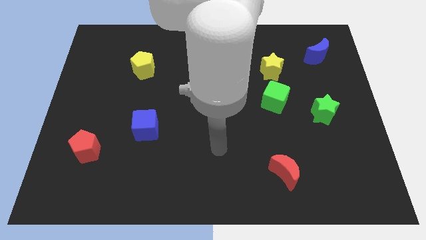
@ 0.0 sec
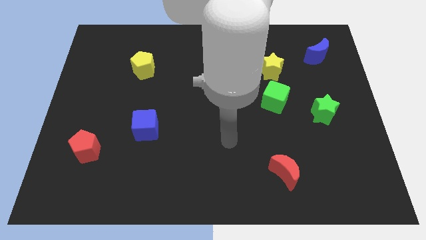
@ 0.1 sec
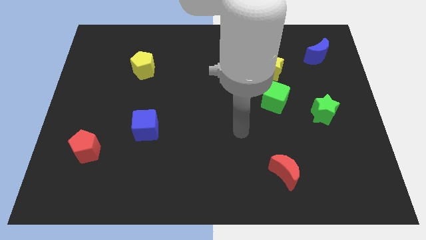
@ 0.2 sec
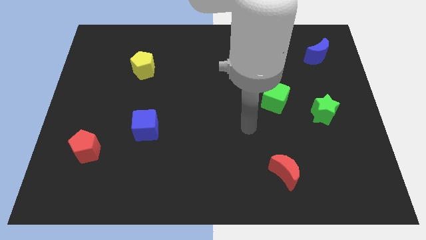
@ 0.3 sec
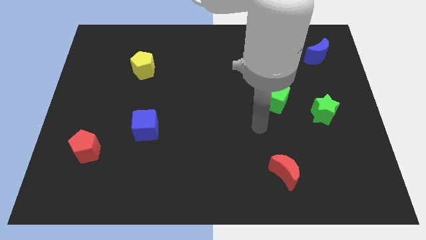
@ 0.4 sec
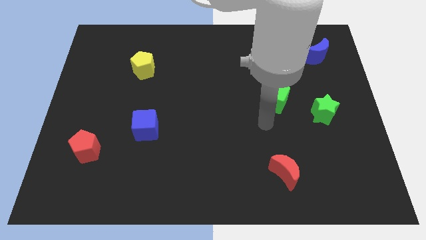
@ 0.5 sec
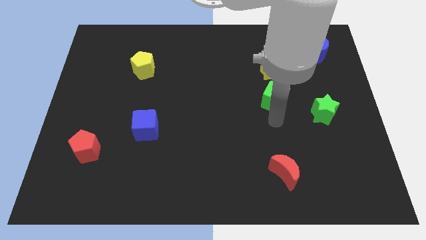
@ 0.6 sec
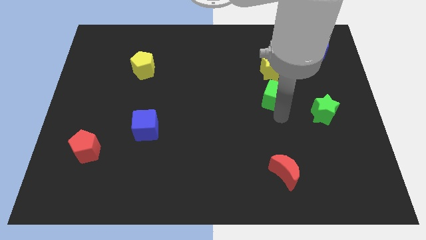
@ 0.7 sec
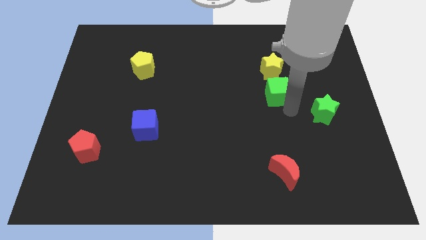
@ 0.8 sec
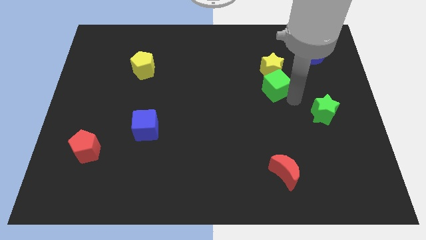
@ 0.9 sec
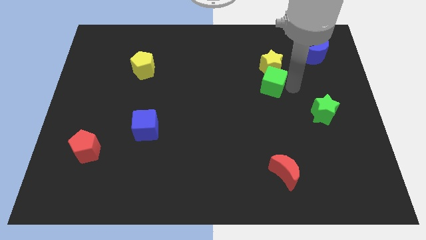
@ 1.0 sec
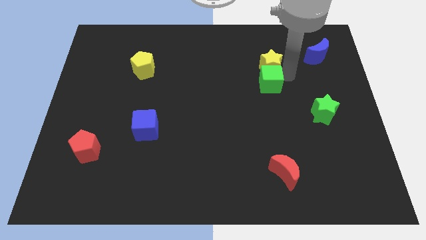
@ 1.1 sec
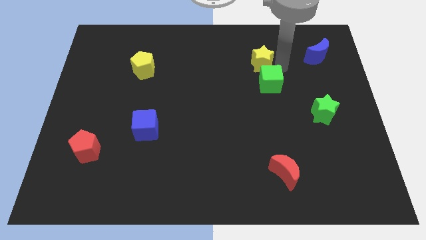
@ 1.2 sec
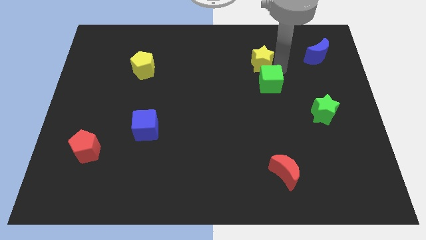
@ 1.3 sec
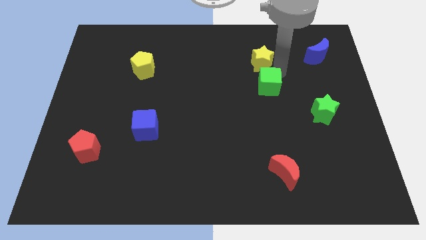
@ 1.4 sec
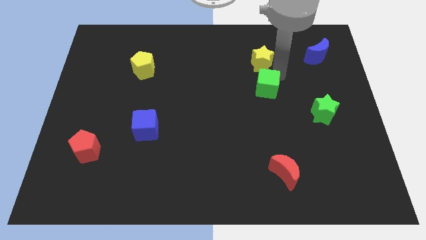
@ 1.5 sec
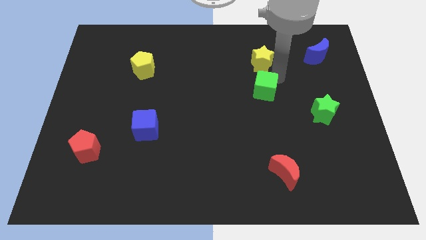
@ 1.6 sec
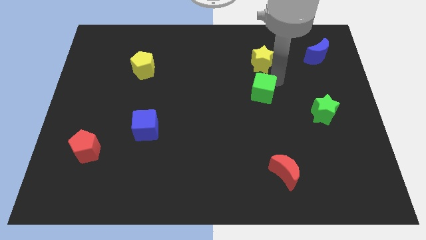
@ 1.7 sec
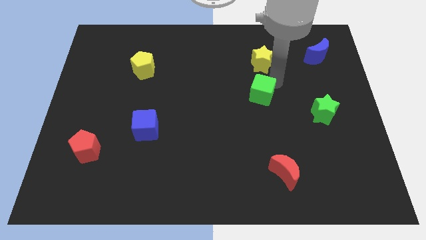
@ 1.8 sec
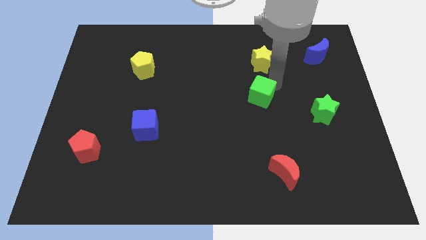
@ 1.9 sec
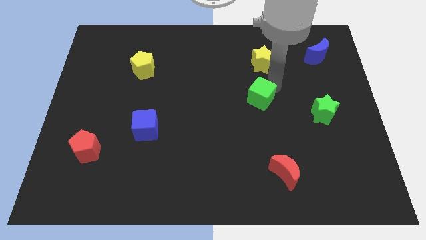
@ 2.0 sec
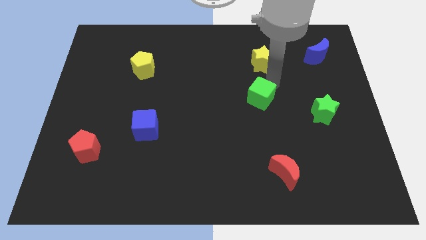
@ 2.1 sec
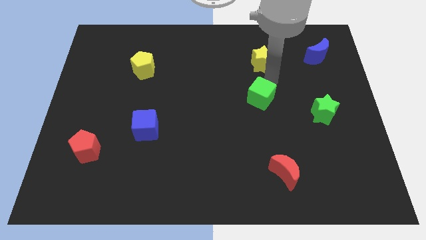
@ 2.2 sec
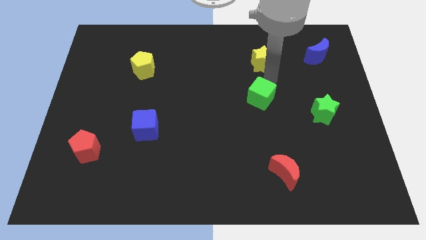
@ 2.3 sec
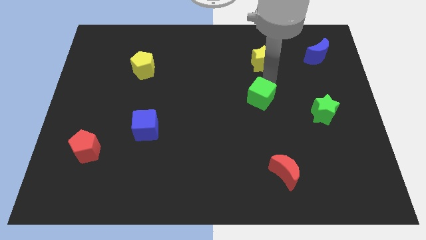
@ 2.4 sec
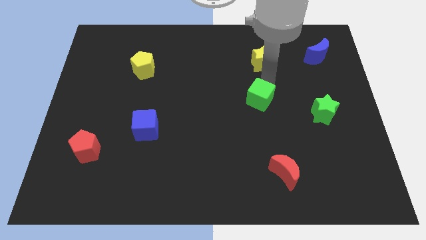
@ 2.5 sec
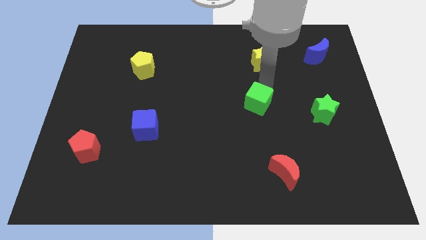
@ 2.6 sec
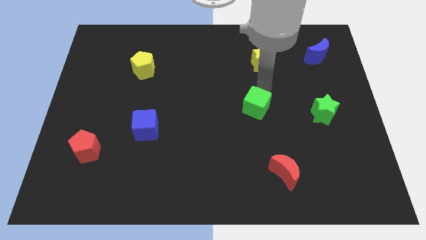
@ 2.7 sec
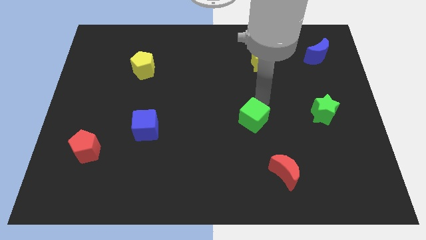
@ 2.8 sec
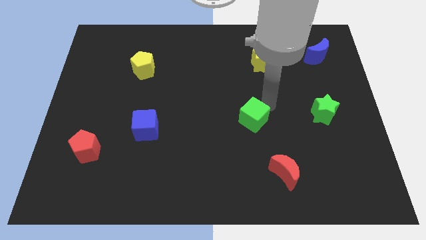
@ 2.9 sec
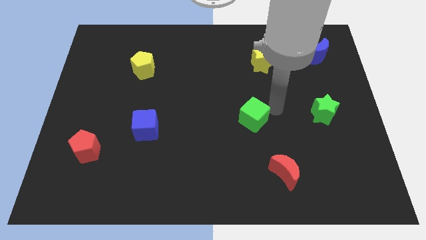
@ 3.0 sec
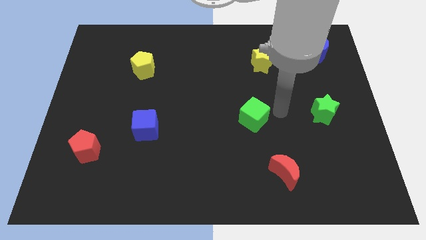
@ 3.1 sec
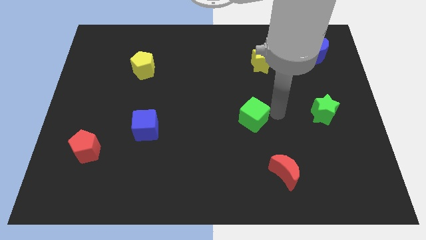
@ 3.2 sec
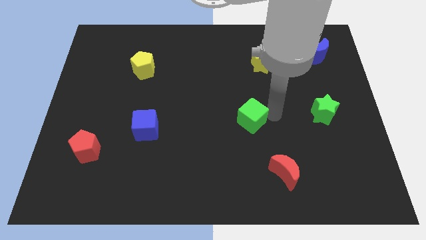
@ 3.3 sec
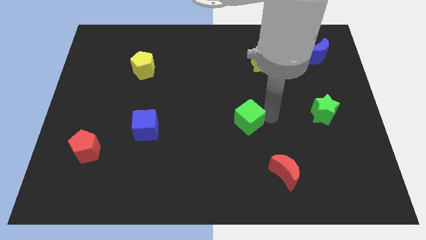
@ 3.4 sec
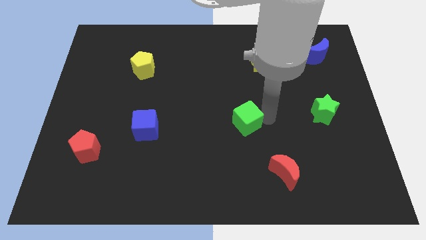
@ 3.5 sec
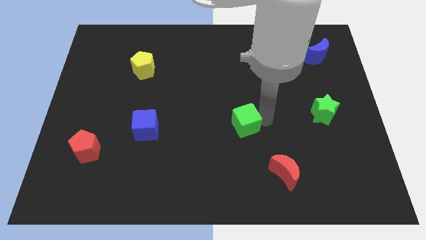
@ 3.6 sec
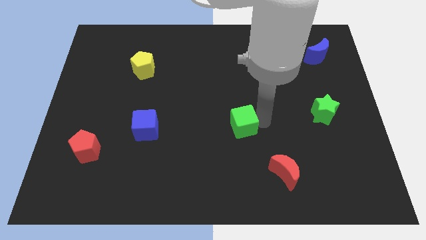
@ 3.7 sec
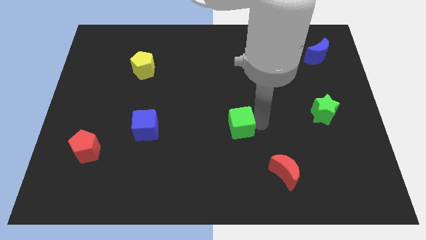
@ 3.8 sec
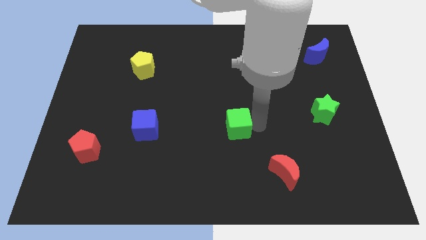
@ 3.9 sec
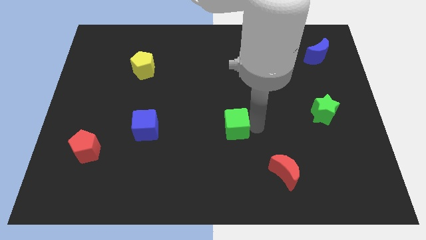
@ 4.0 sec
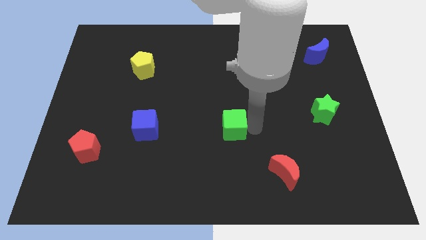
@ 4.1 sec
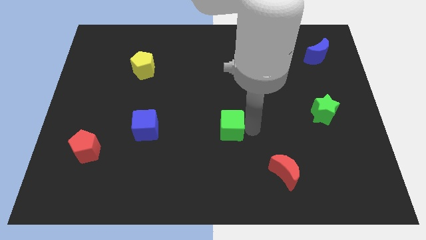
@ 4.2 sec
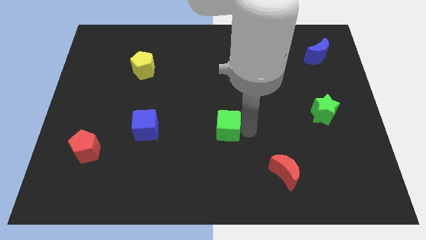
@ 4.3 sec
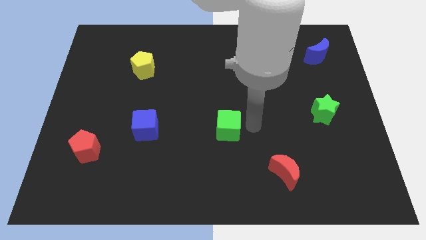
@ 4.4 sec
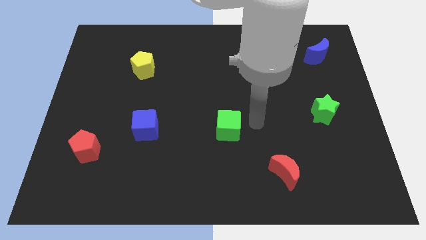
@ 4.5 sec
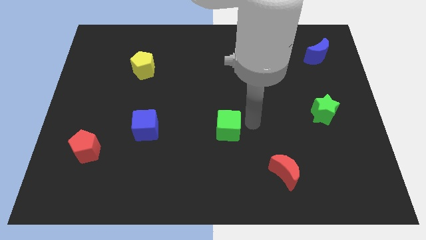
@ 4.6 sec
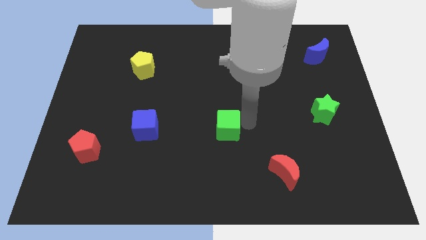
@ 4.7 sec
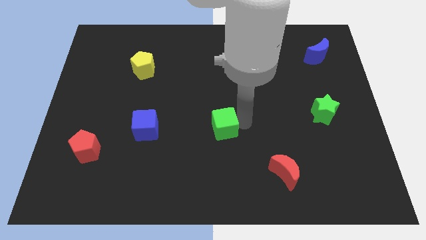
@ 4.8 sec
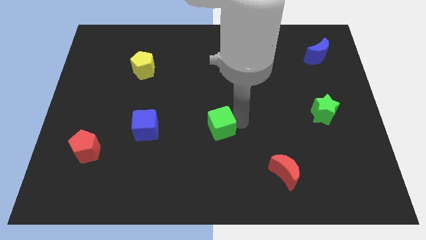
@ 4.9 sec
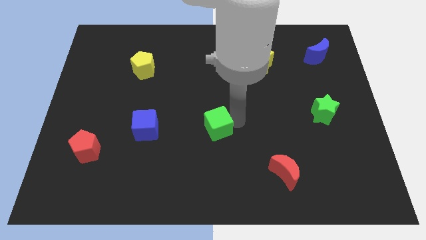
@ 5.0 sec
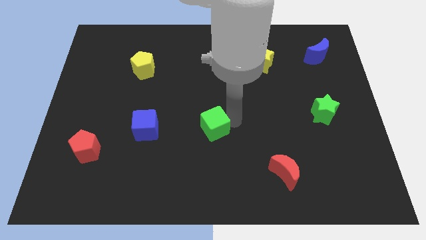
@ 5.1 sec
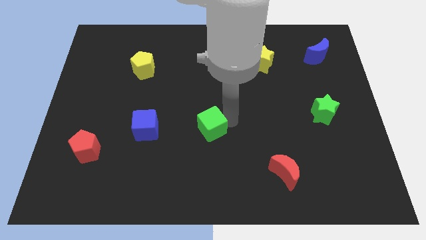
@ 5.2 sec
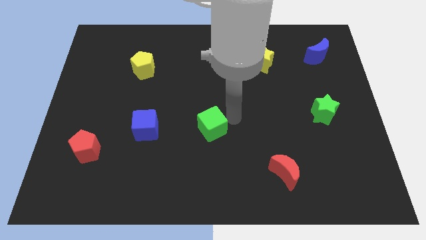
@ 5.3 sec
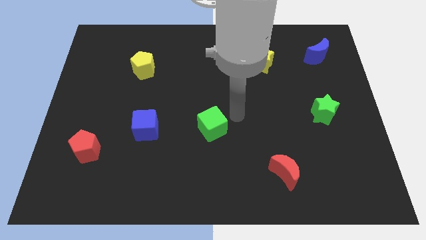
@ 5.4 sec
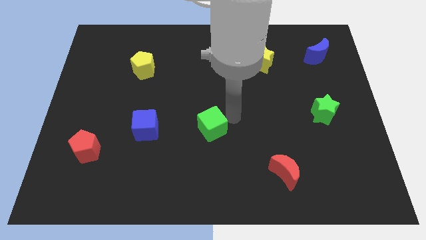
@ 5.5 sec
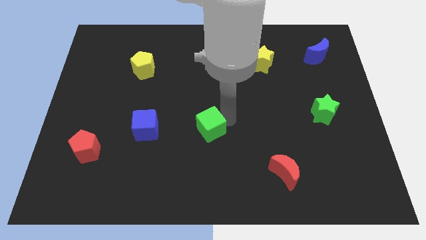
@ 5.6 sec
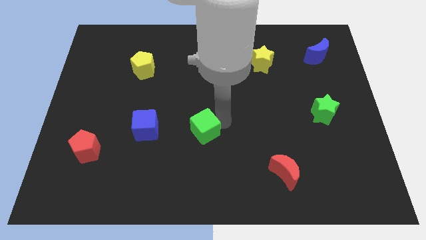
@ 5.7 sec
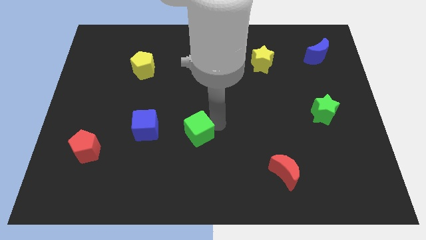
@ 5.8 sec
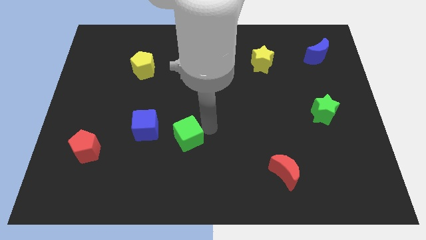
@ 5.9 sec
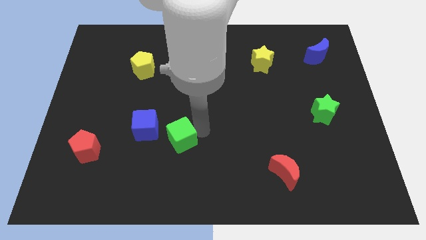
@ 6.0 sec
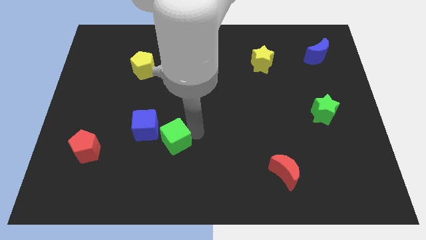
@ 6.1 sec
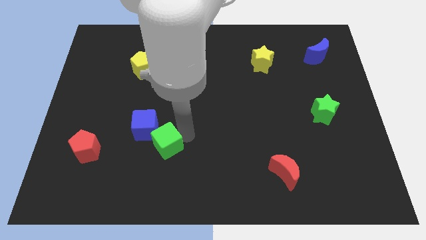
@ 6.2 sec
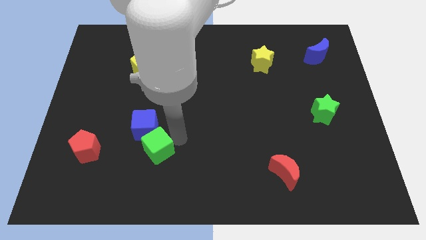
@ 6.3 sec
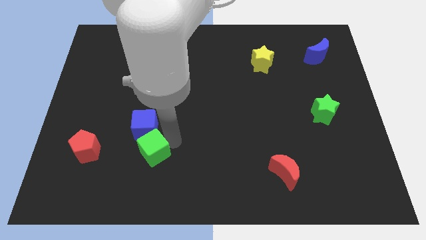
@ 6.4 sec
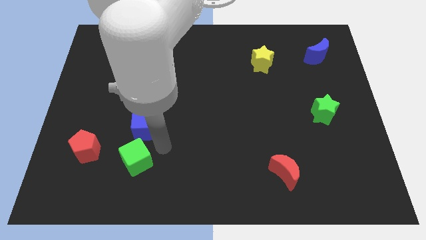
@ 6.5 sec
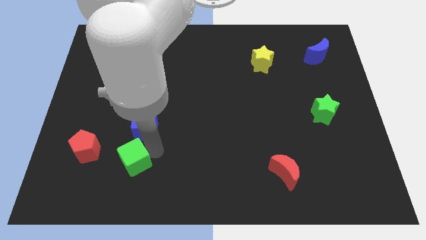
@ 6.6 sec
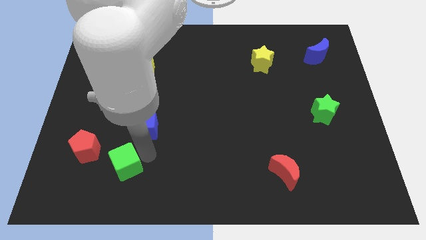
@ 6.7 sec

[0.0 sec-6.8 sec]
move the green cube to the bottom right of the red pentagon

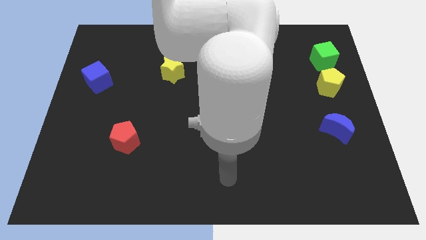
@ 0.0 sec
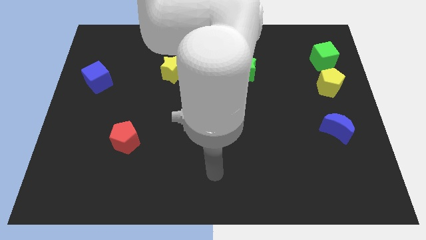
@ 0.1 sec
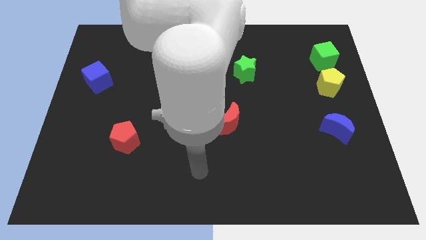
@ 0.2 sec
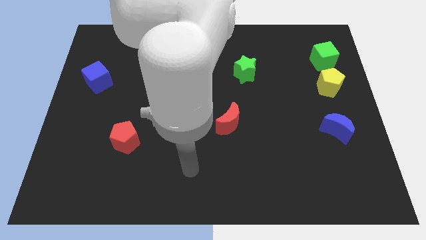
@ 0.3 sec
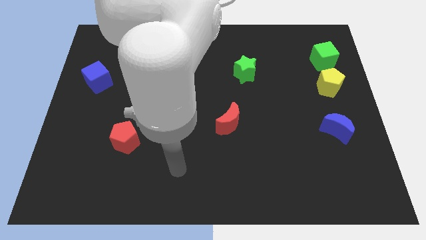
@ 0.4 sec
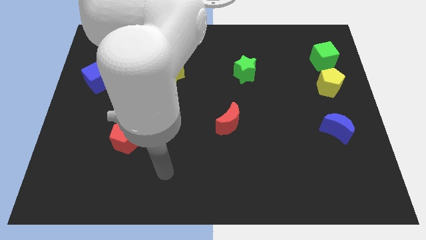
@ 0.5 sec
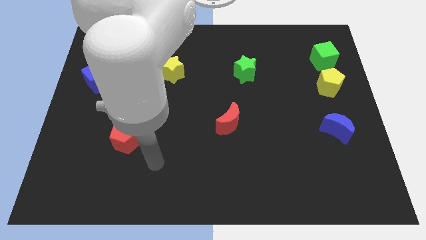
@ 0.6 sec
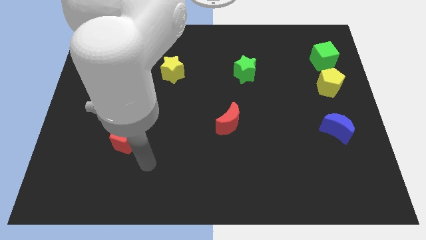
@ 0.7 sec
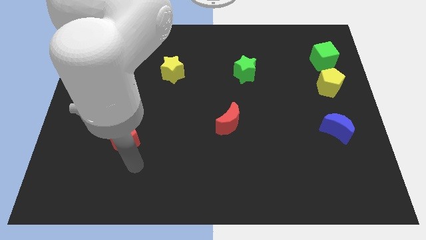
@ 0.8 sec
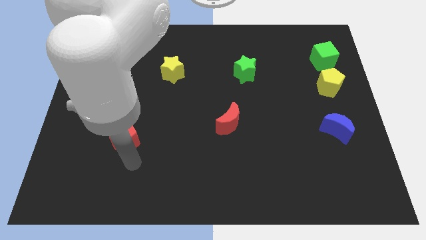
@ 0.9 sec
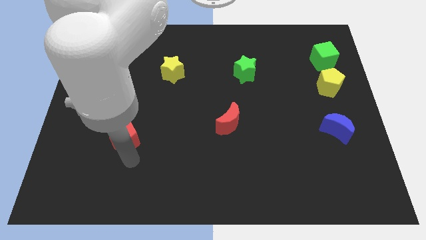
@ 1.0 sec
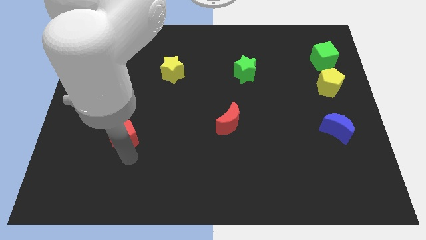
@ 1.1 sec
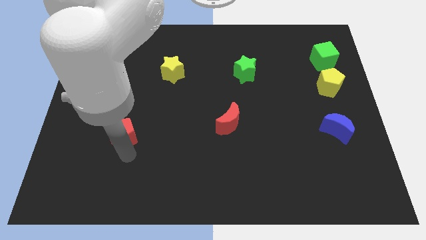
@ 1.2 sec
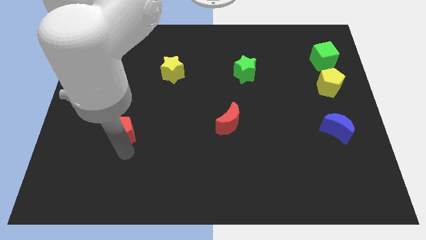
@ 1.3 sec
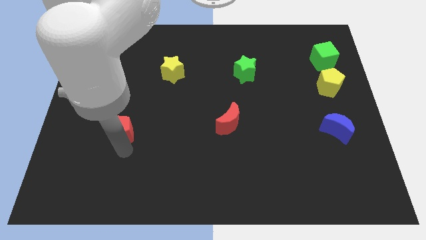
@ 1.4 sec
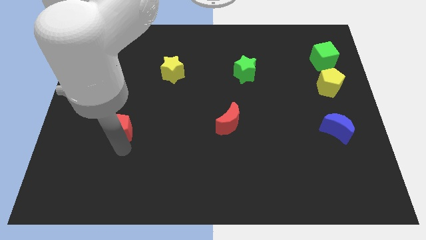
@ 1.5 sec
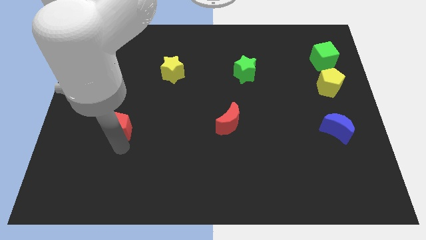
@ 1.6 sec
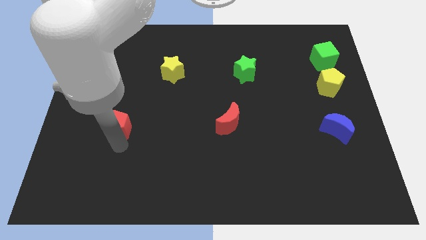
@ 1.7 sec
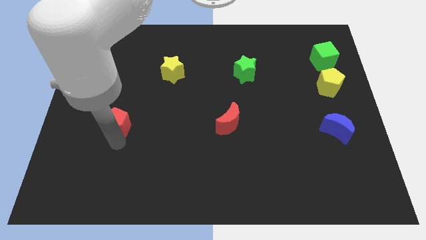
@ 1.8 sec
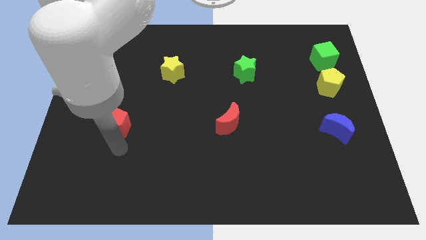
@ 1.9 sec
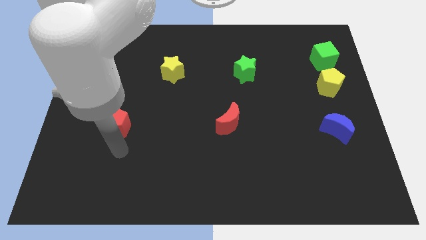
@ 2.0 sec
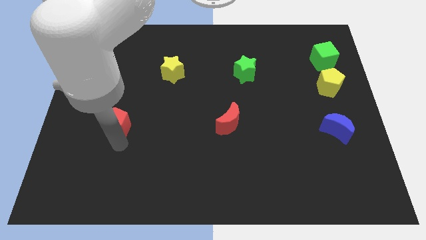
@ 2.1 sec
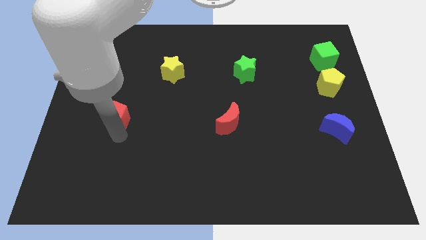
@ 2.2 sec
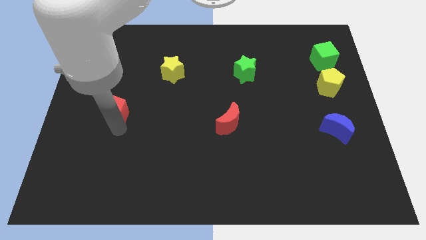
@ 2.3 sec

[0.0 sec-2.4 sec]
push the red pentagon to the bottom right side of the blue cube
